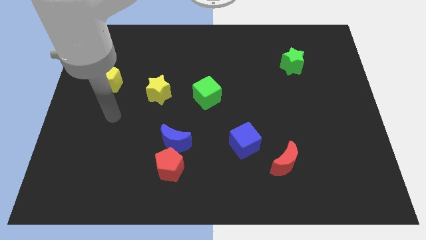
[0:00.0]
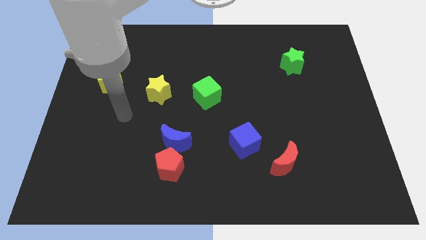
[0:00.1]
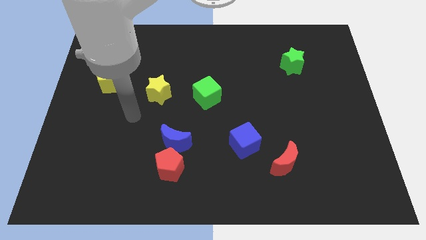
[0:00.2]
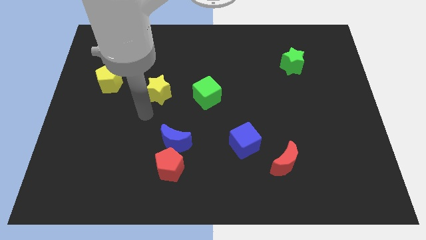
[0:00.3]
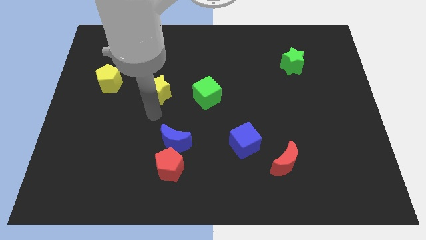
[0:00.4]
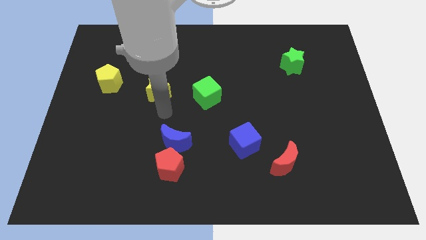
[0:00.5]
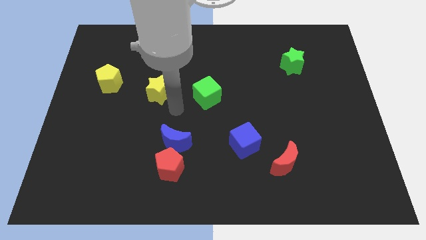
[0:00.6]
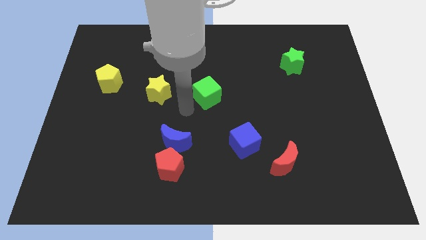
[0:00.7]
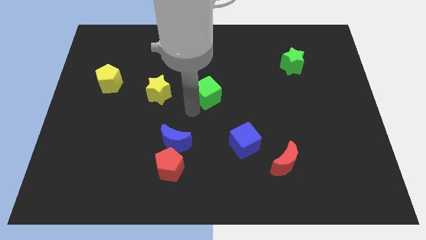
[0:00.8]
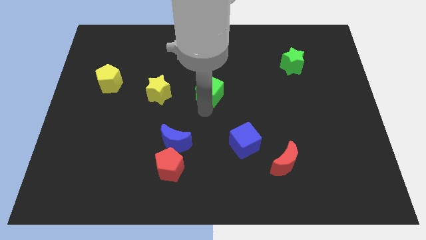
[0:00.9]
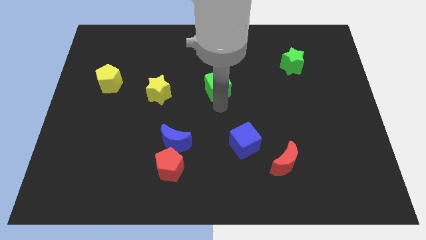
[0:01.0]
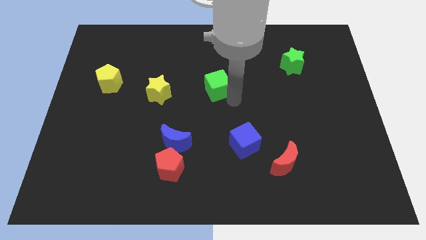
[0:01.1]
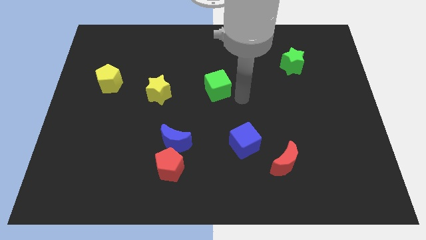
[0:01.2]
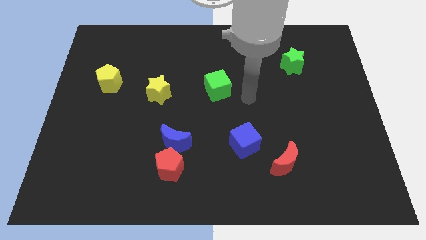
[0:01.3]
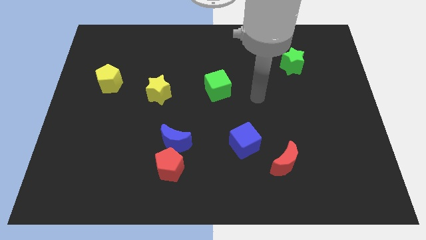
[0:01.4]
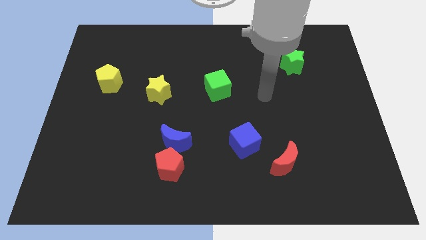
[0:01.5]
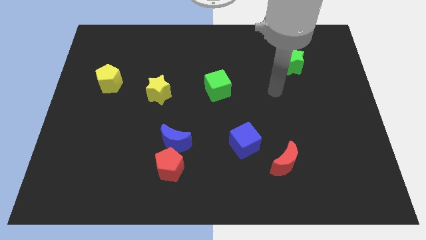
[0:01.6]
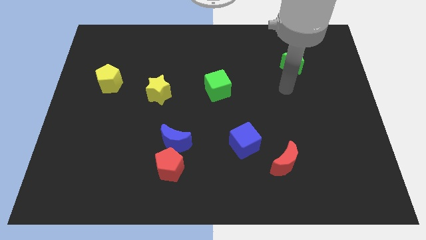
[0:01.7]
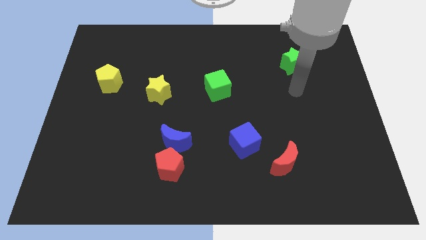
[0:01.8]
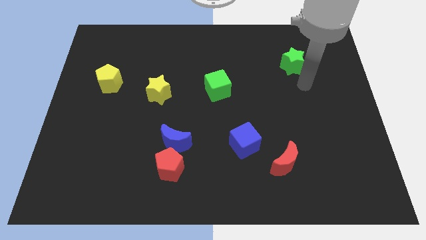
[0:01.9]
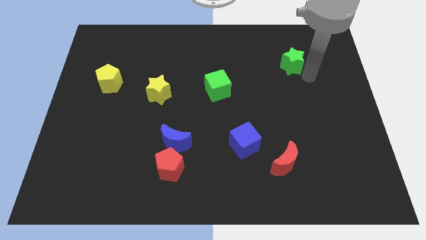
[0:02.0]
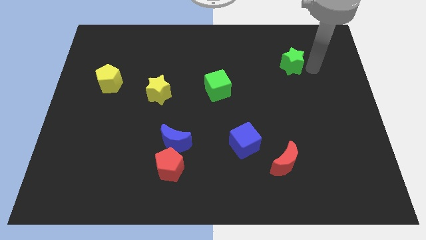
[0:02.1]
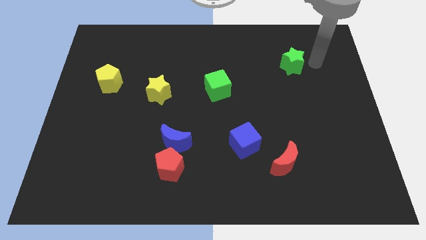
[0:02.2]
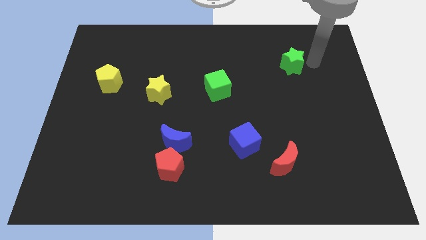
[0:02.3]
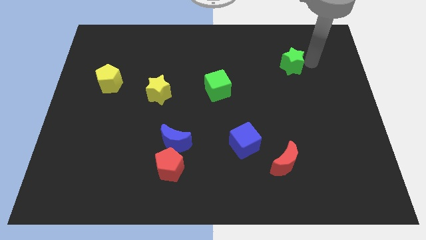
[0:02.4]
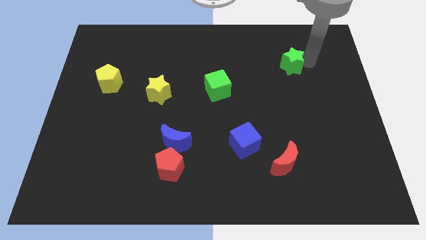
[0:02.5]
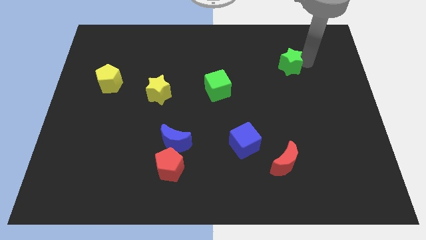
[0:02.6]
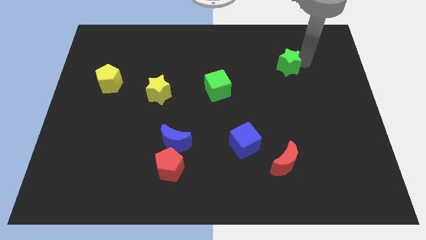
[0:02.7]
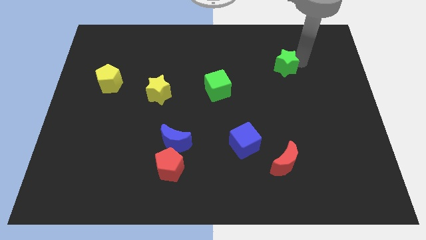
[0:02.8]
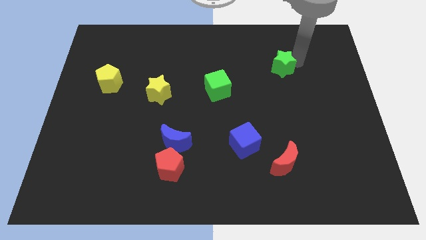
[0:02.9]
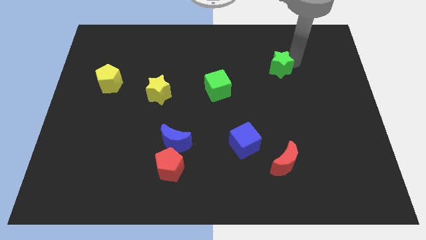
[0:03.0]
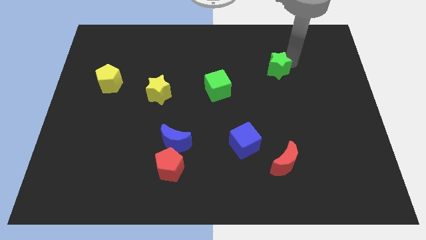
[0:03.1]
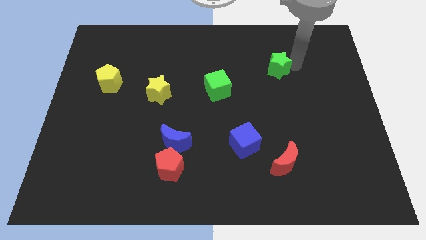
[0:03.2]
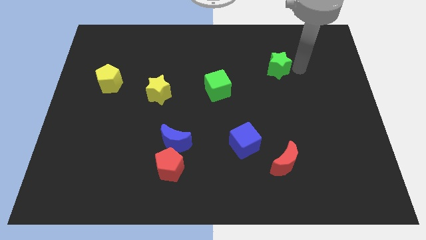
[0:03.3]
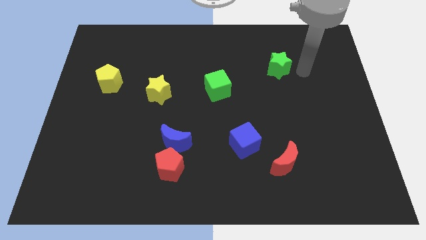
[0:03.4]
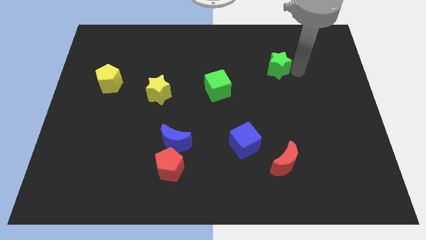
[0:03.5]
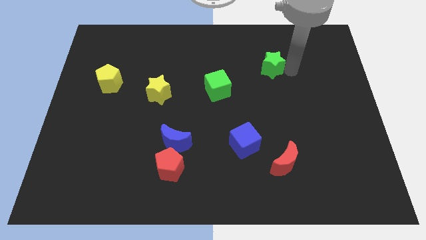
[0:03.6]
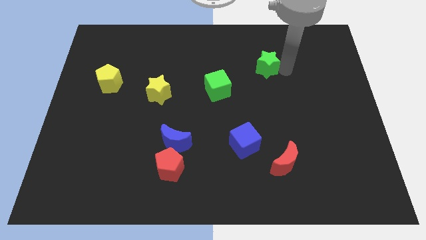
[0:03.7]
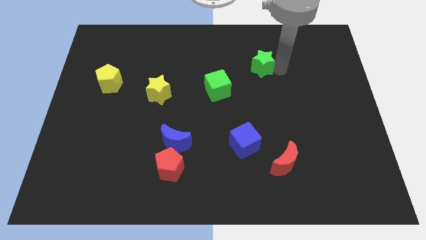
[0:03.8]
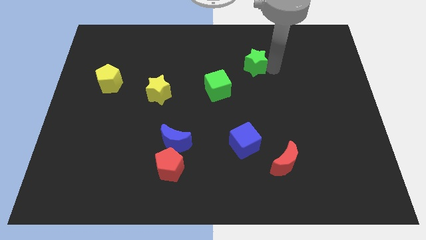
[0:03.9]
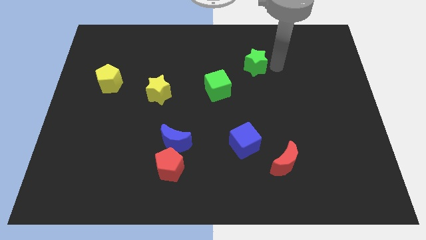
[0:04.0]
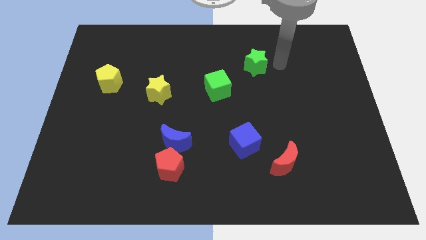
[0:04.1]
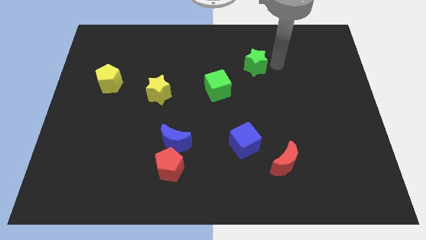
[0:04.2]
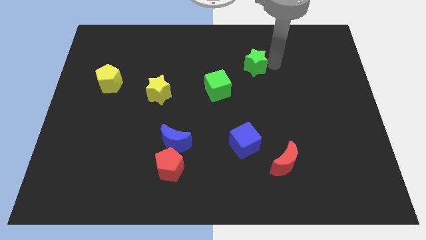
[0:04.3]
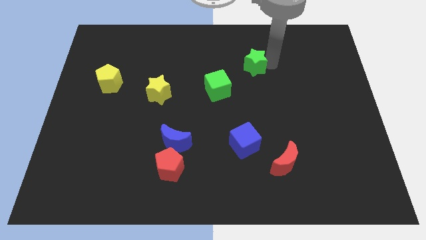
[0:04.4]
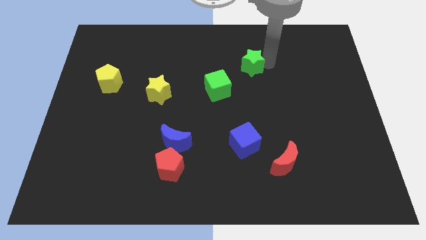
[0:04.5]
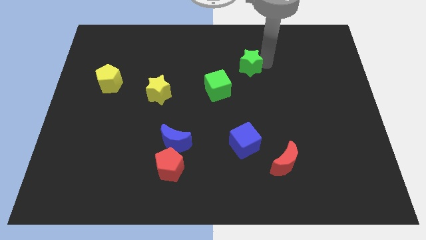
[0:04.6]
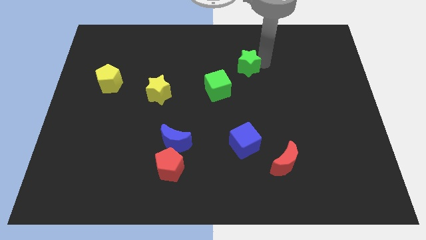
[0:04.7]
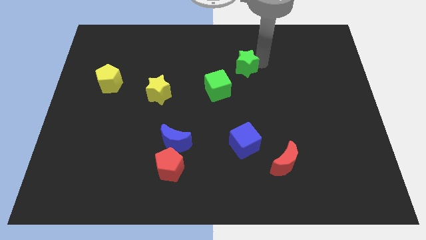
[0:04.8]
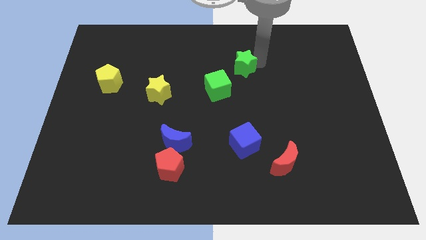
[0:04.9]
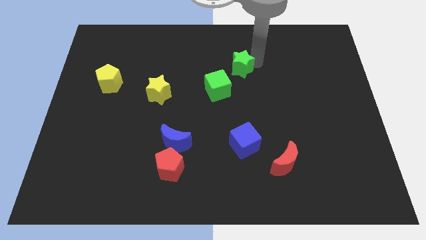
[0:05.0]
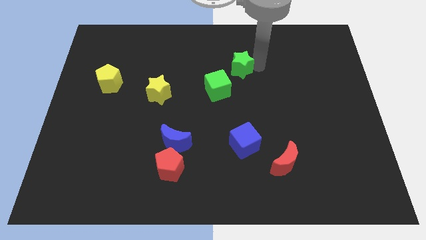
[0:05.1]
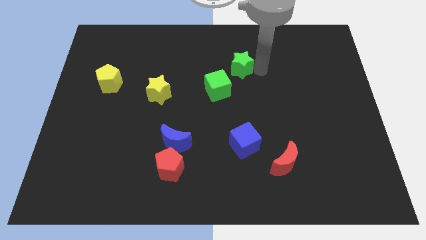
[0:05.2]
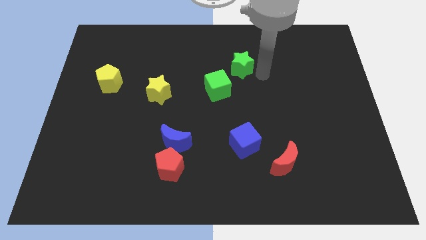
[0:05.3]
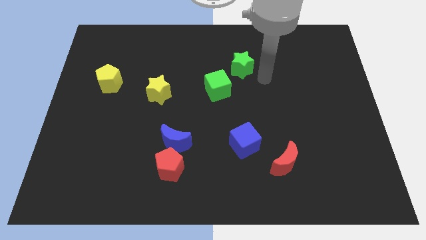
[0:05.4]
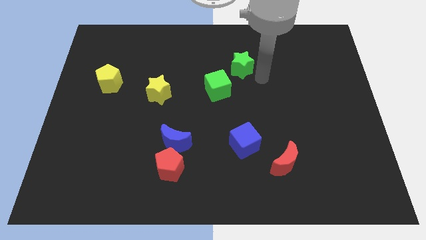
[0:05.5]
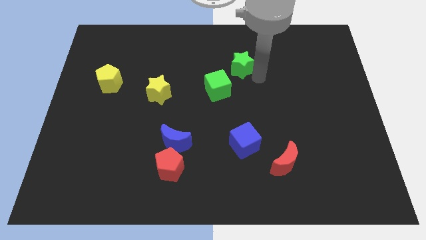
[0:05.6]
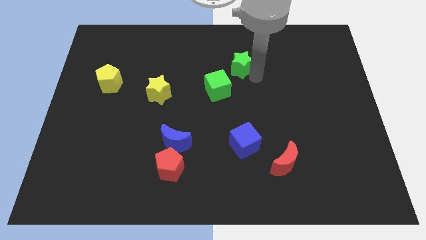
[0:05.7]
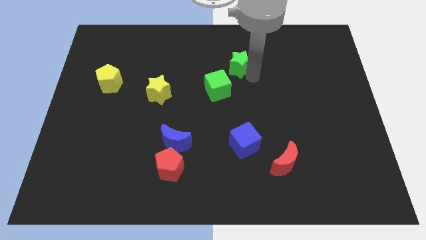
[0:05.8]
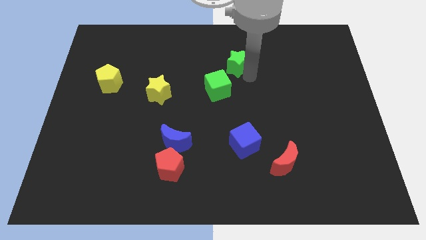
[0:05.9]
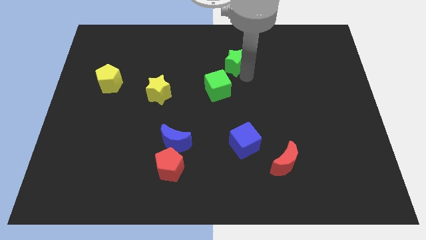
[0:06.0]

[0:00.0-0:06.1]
move the green star to the top side of the green cube
